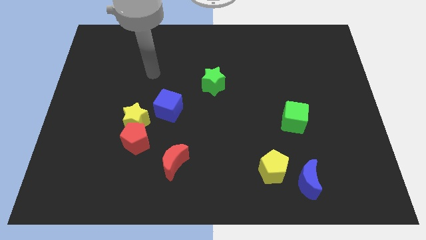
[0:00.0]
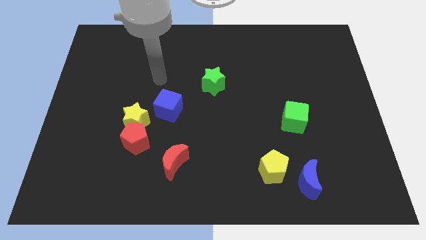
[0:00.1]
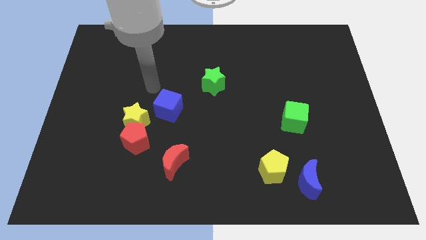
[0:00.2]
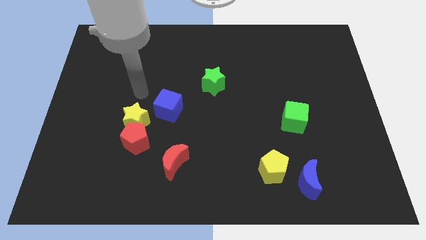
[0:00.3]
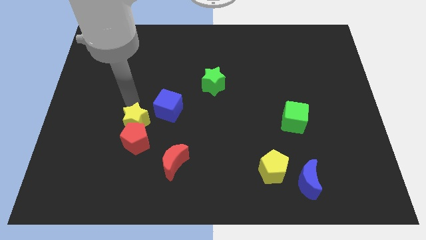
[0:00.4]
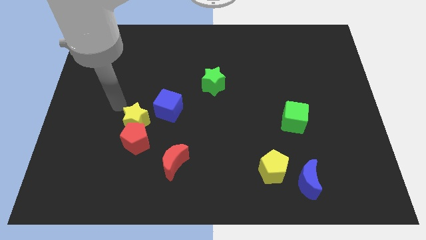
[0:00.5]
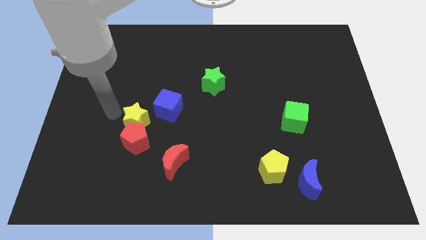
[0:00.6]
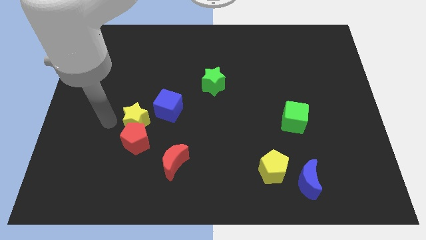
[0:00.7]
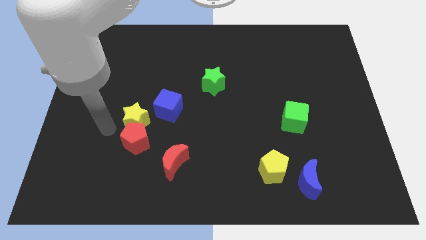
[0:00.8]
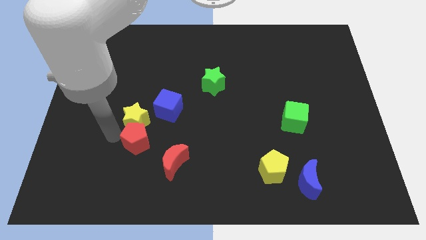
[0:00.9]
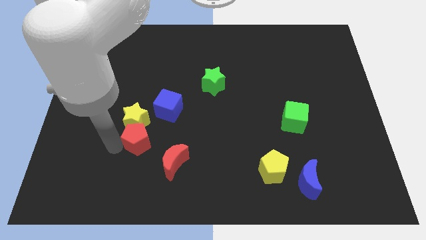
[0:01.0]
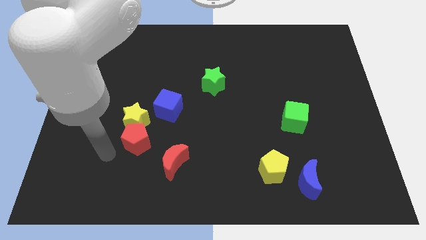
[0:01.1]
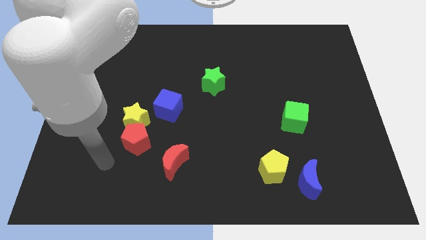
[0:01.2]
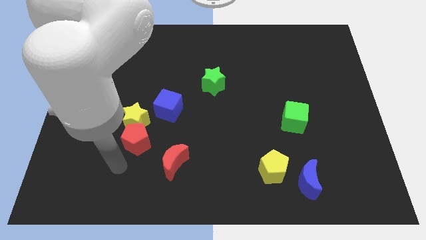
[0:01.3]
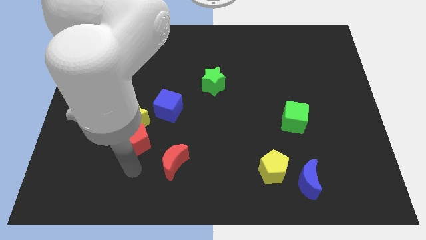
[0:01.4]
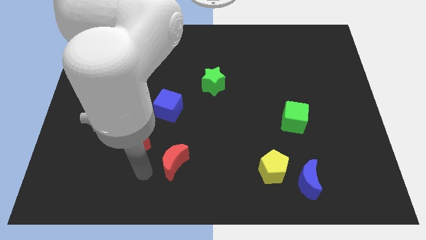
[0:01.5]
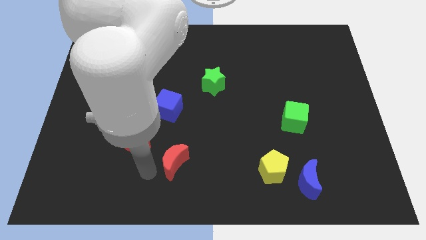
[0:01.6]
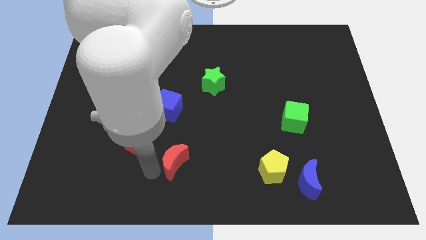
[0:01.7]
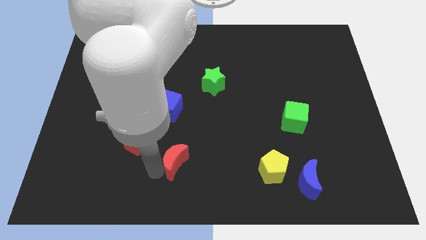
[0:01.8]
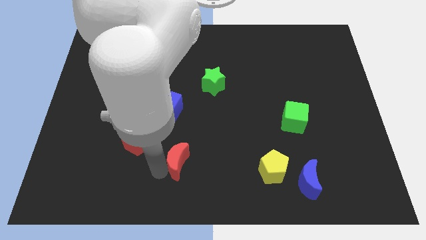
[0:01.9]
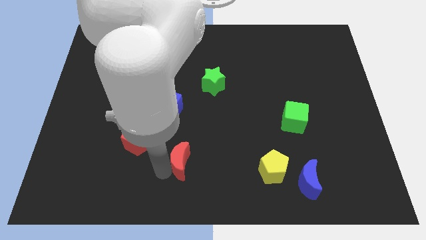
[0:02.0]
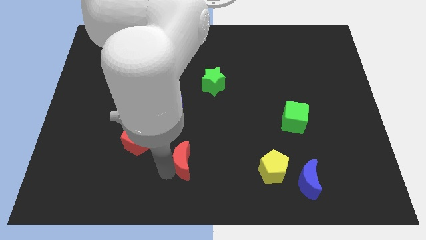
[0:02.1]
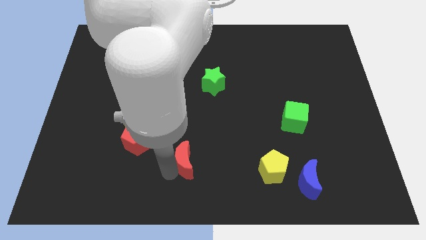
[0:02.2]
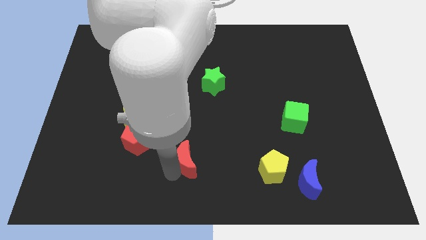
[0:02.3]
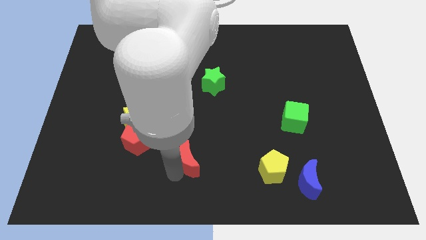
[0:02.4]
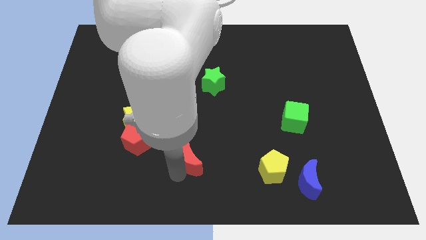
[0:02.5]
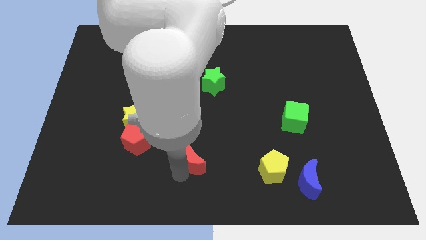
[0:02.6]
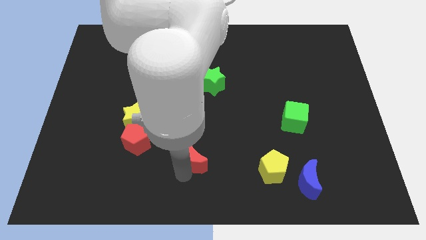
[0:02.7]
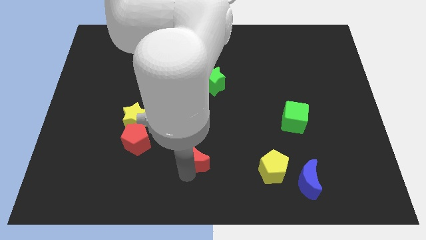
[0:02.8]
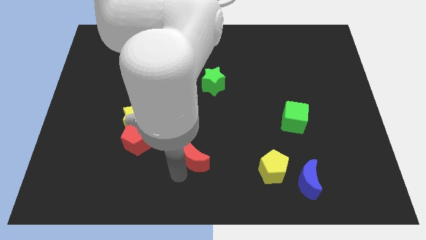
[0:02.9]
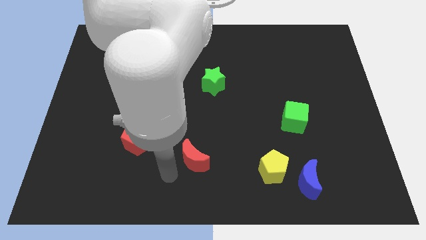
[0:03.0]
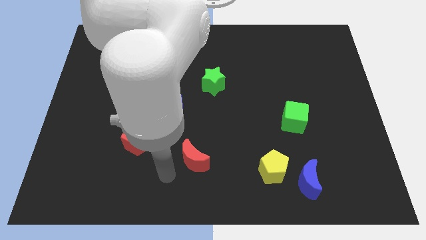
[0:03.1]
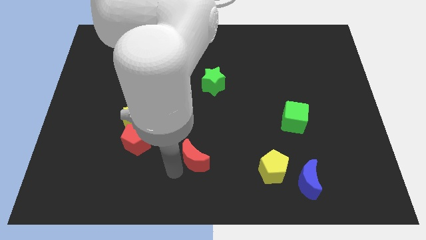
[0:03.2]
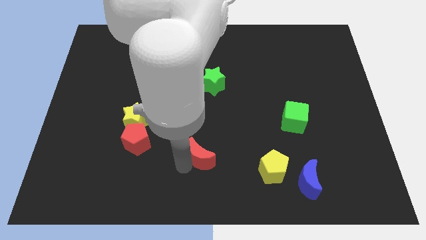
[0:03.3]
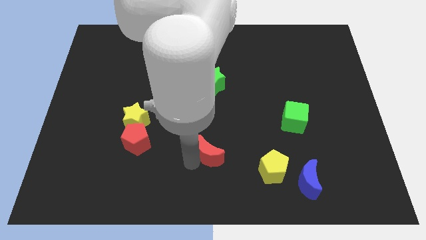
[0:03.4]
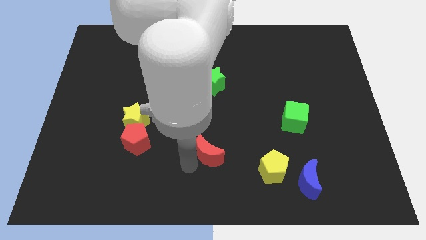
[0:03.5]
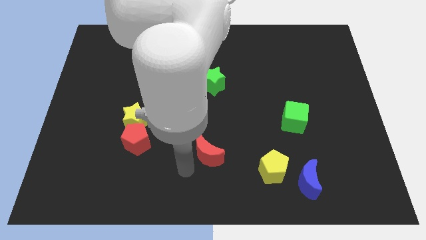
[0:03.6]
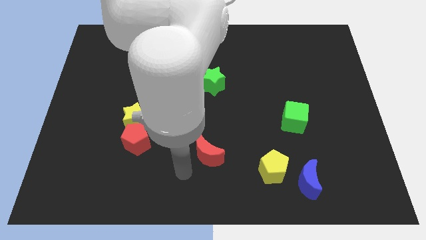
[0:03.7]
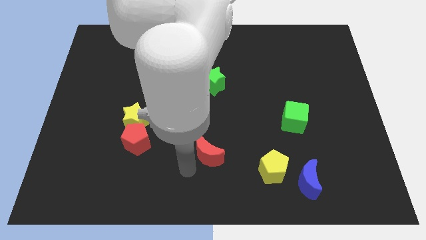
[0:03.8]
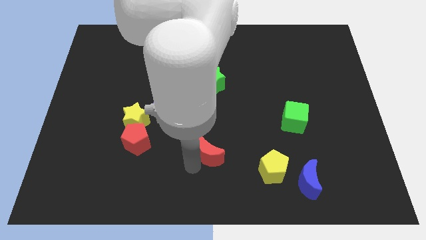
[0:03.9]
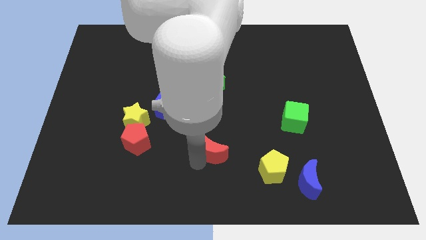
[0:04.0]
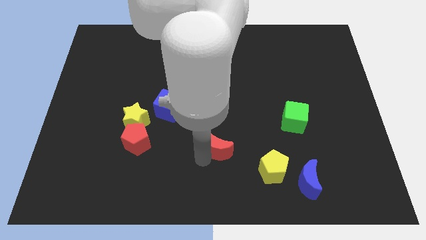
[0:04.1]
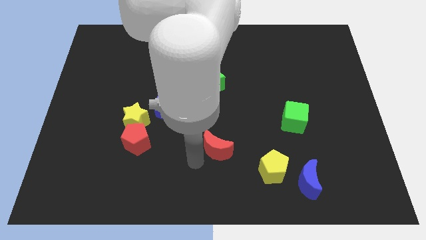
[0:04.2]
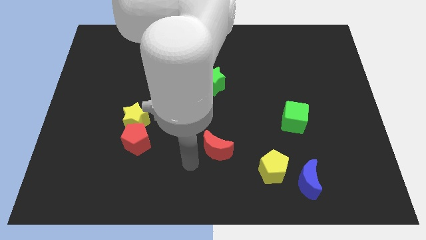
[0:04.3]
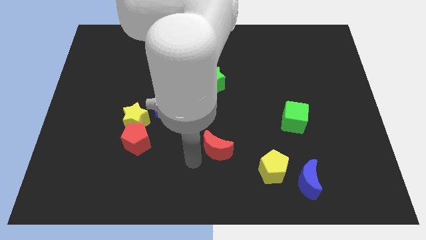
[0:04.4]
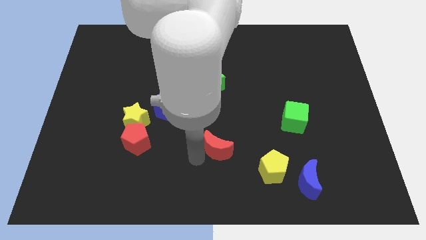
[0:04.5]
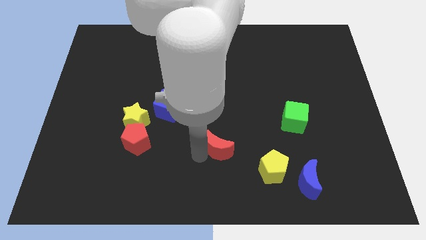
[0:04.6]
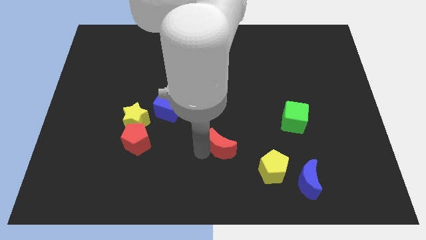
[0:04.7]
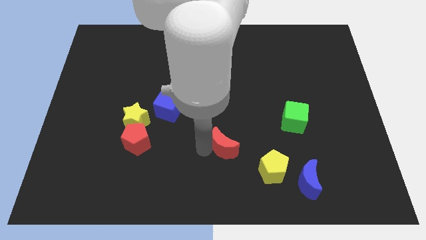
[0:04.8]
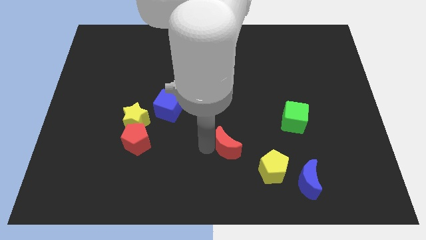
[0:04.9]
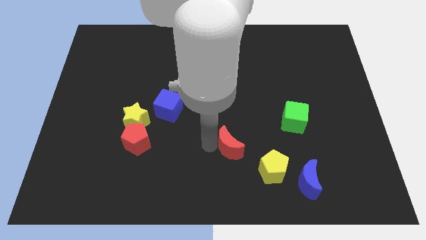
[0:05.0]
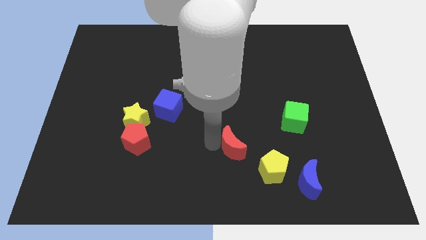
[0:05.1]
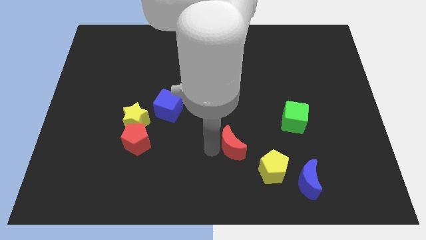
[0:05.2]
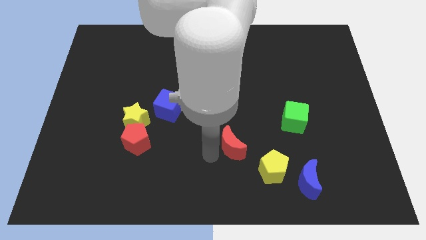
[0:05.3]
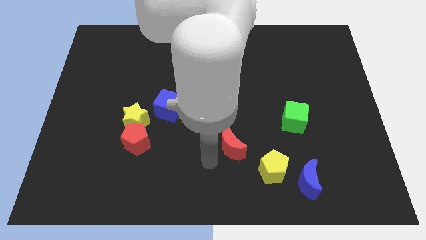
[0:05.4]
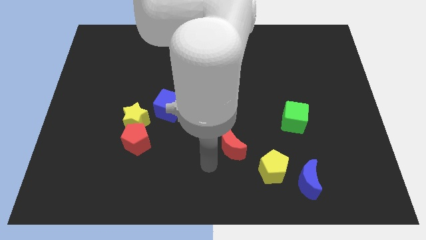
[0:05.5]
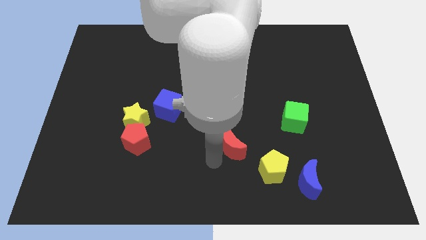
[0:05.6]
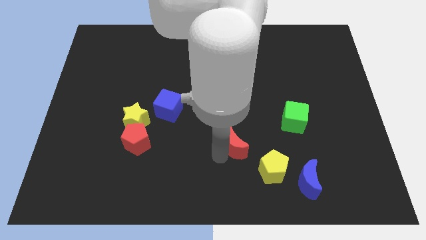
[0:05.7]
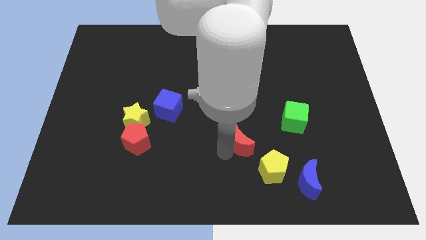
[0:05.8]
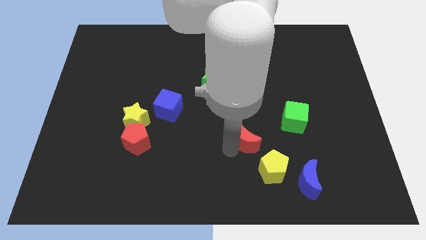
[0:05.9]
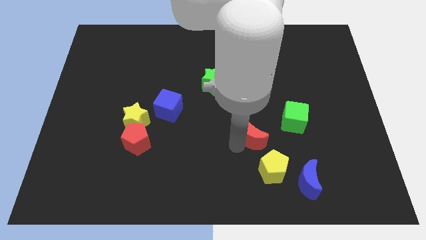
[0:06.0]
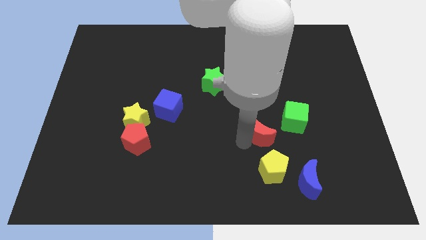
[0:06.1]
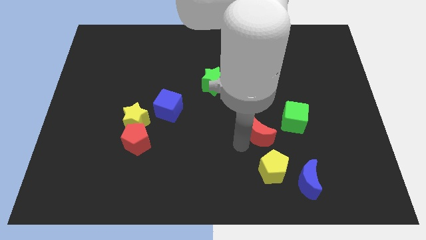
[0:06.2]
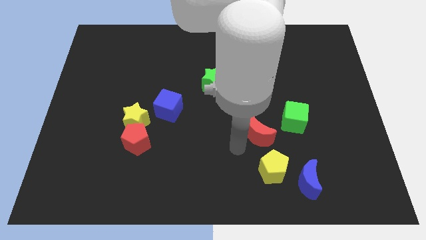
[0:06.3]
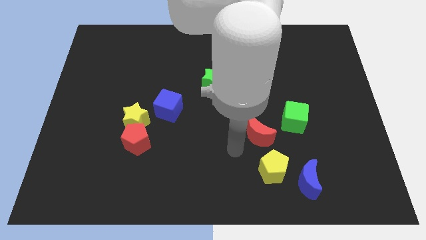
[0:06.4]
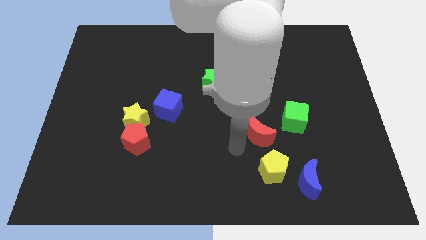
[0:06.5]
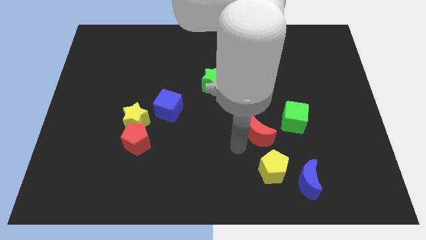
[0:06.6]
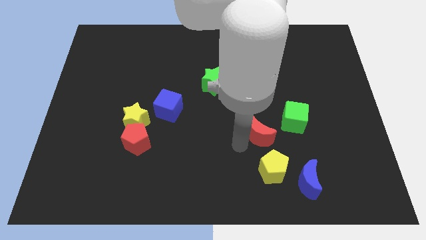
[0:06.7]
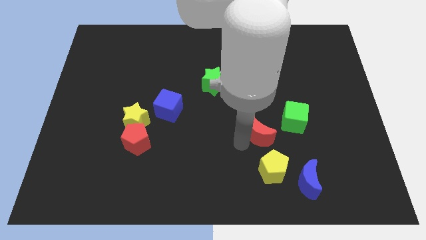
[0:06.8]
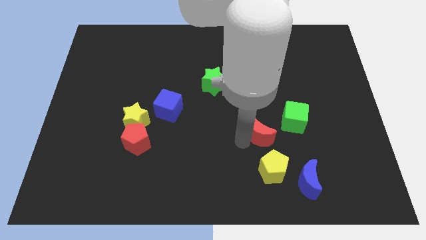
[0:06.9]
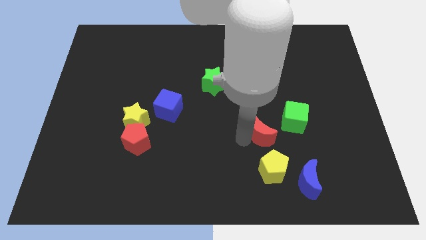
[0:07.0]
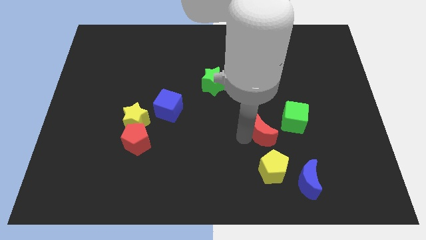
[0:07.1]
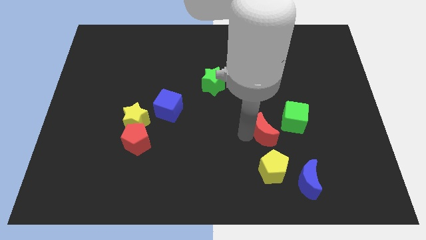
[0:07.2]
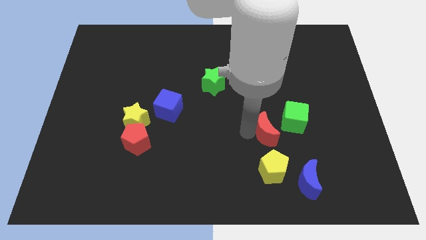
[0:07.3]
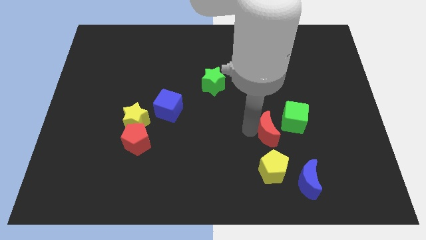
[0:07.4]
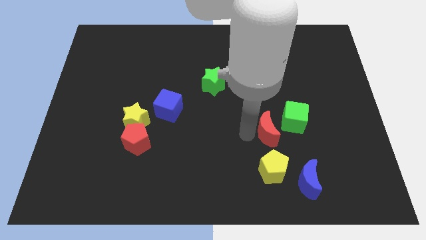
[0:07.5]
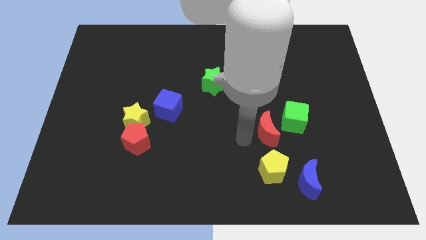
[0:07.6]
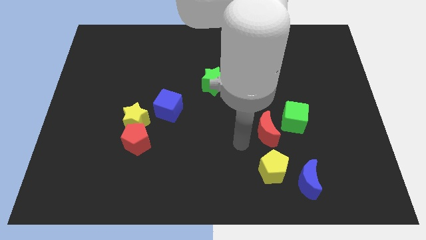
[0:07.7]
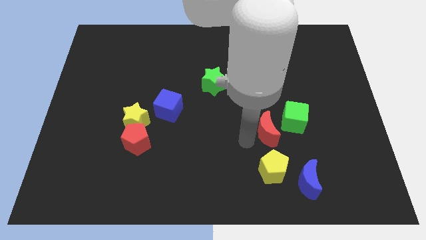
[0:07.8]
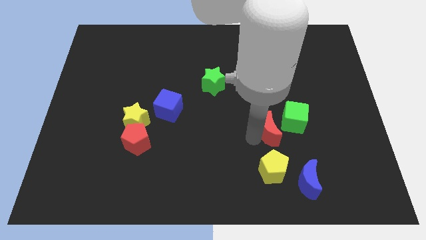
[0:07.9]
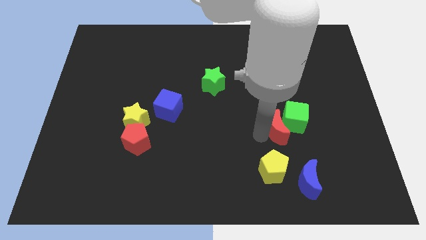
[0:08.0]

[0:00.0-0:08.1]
put the red moon next to the green cube
